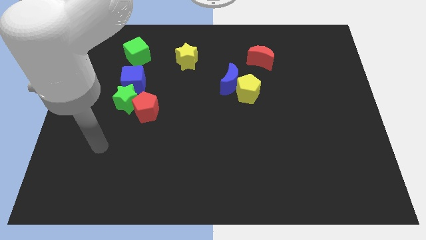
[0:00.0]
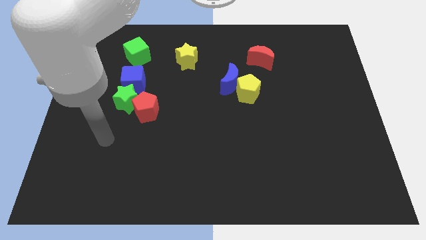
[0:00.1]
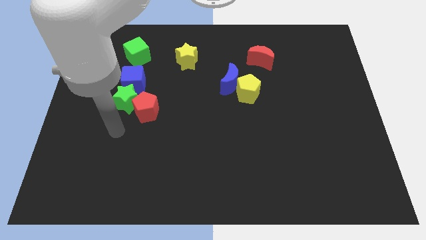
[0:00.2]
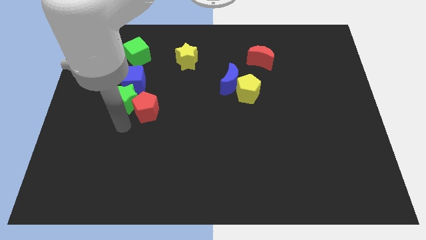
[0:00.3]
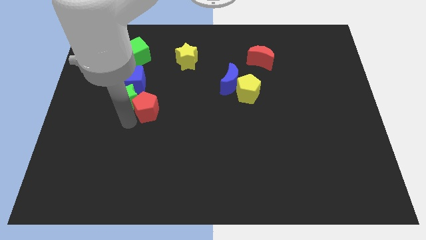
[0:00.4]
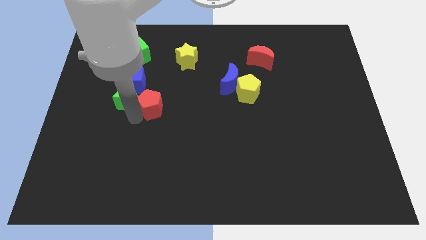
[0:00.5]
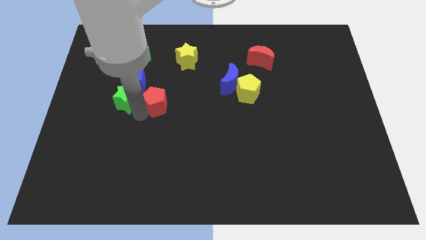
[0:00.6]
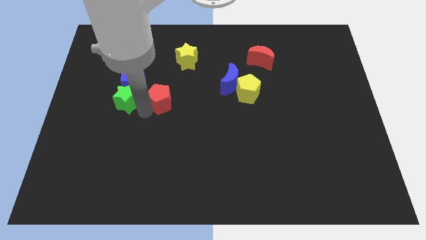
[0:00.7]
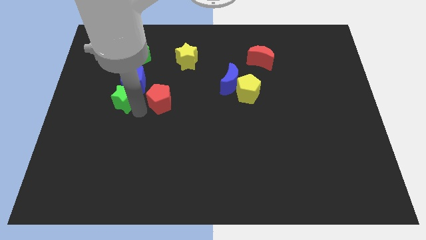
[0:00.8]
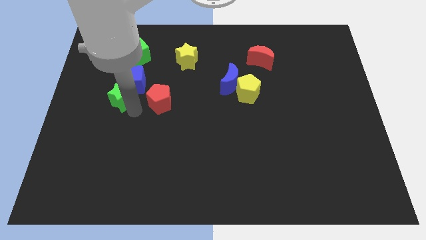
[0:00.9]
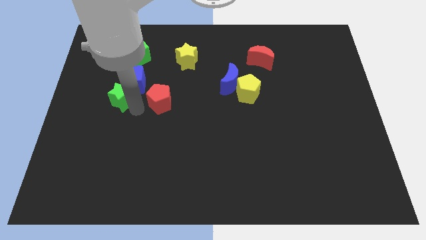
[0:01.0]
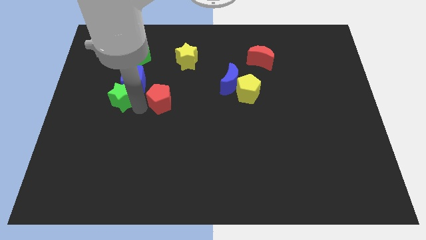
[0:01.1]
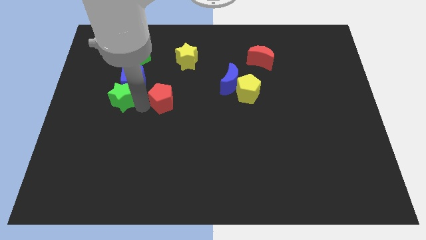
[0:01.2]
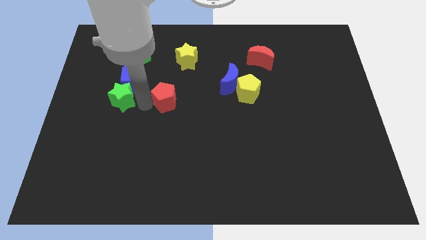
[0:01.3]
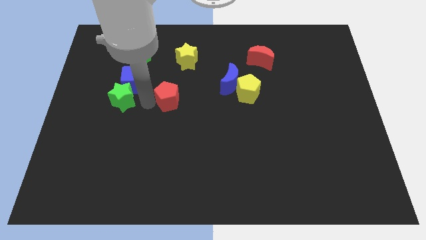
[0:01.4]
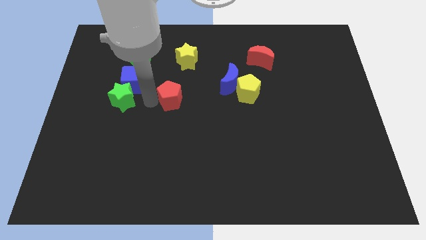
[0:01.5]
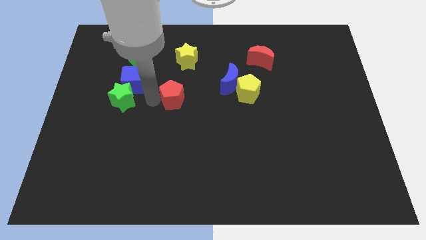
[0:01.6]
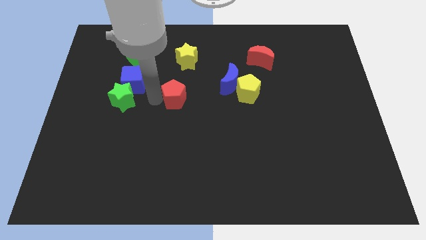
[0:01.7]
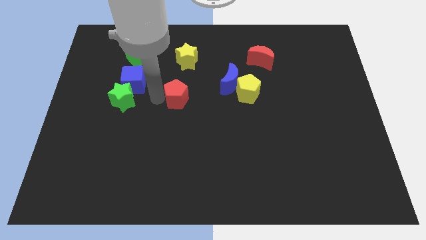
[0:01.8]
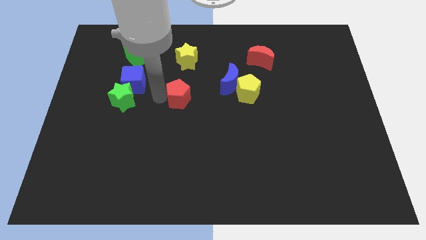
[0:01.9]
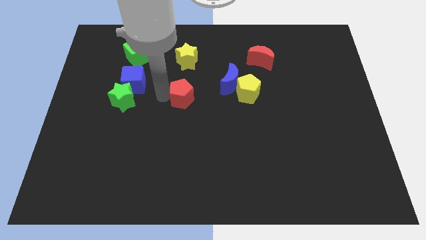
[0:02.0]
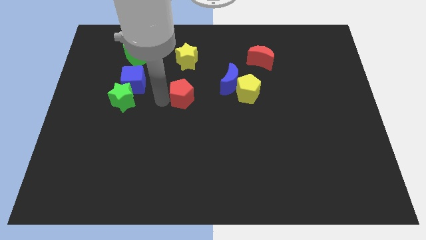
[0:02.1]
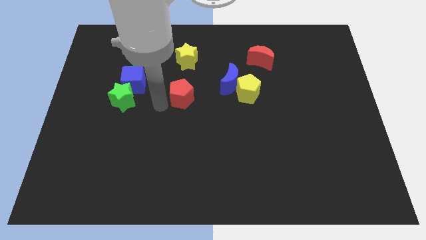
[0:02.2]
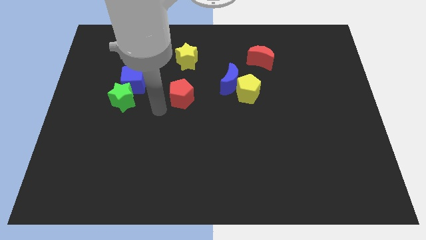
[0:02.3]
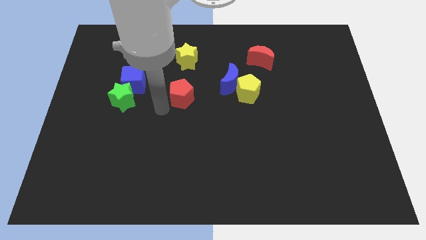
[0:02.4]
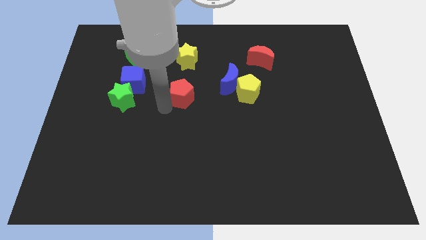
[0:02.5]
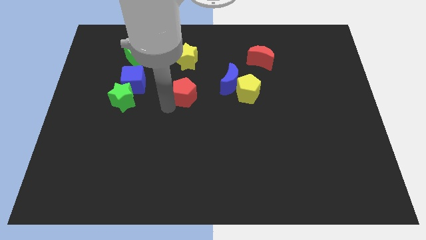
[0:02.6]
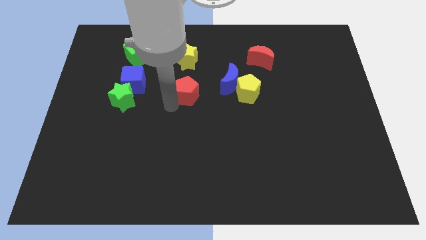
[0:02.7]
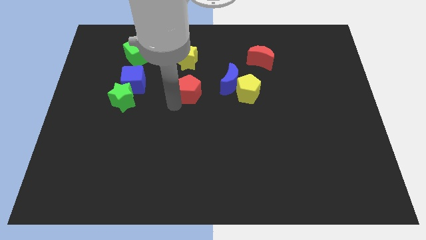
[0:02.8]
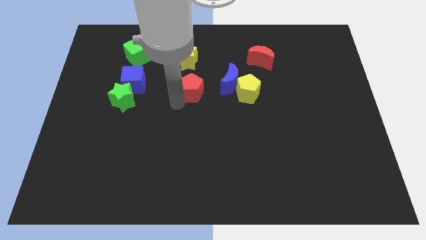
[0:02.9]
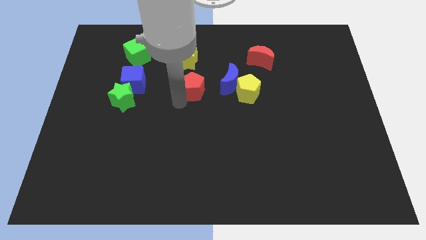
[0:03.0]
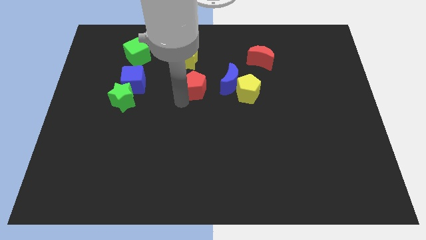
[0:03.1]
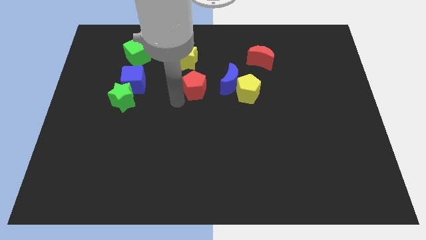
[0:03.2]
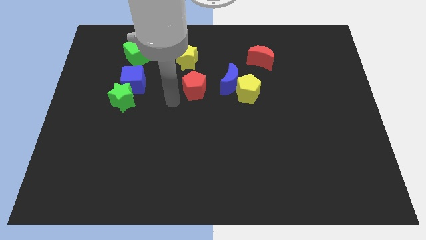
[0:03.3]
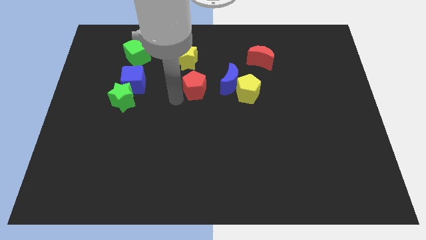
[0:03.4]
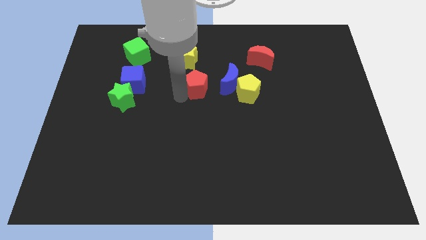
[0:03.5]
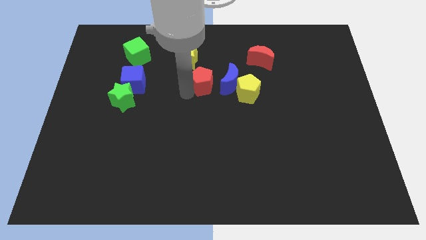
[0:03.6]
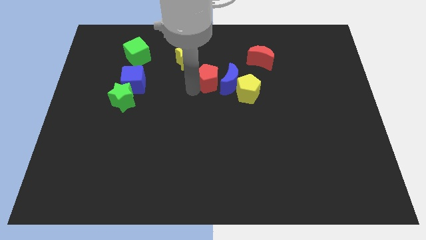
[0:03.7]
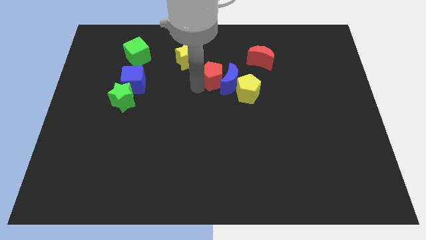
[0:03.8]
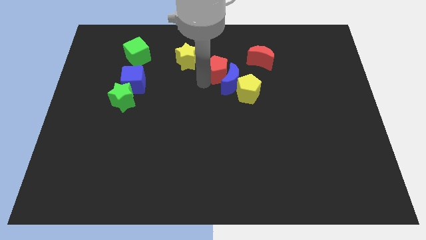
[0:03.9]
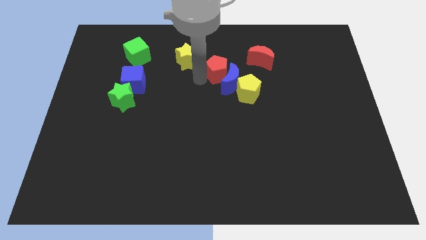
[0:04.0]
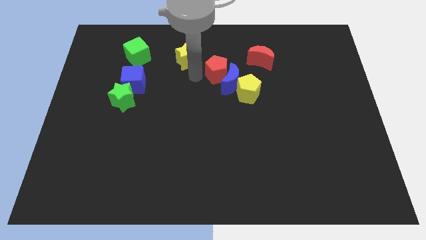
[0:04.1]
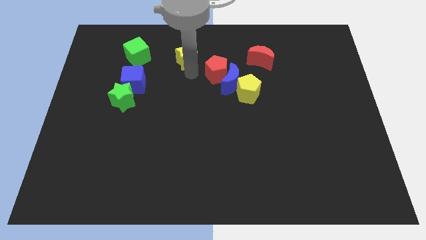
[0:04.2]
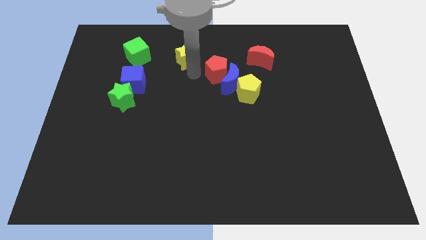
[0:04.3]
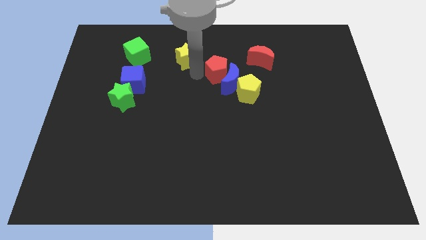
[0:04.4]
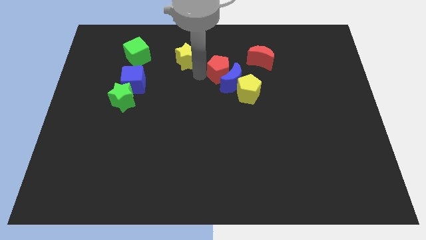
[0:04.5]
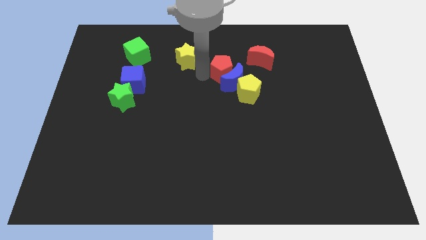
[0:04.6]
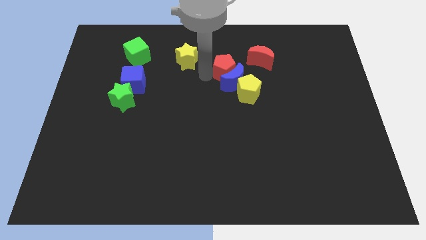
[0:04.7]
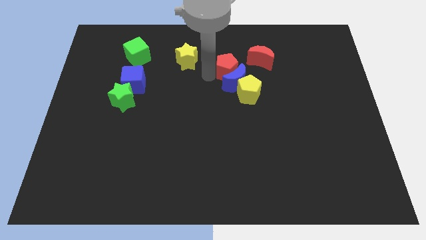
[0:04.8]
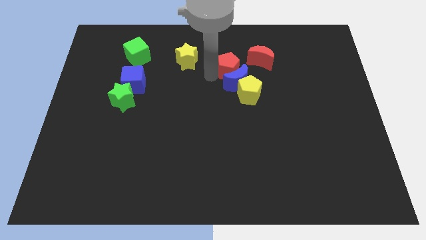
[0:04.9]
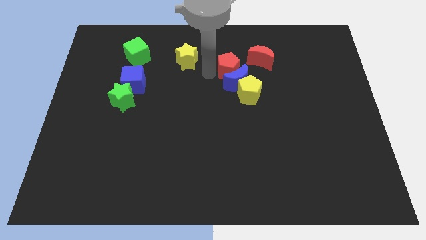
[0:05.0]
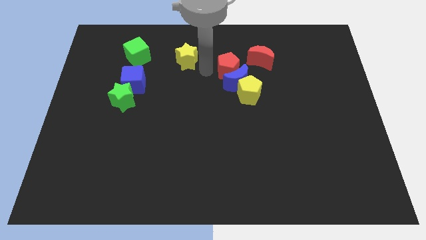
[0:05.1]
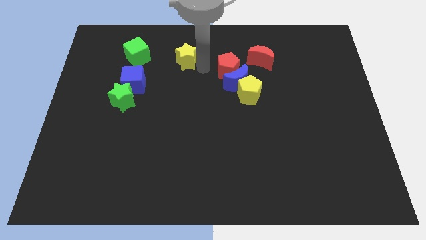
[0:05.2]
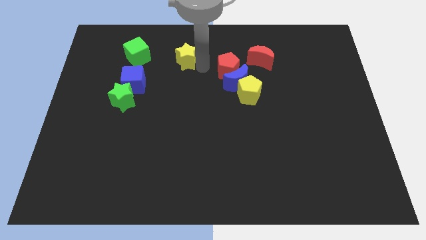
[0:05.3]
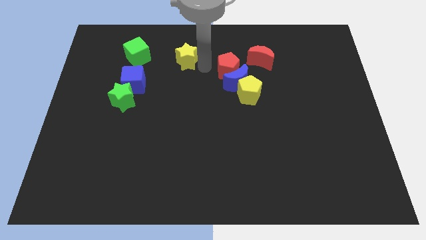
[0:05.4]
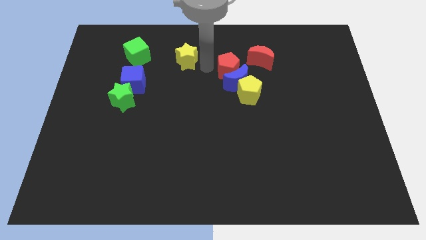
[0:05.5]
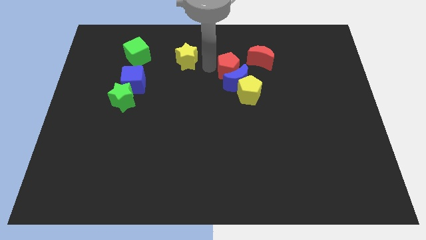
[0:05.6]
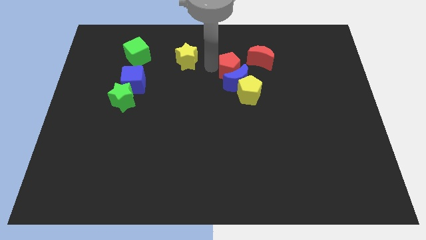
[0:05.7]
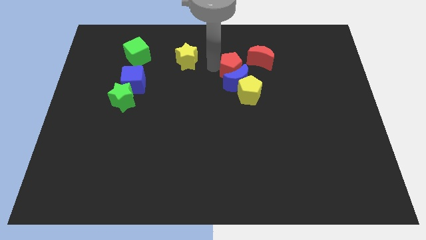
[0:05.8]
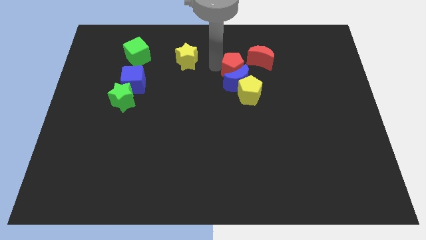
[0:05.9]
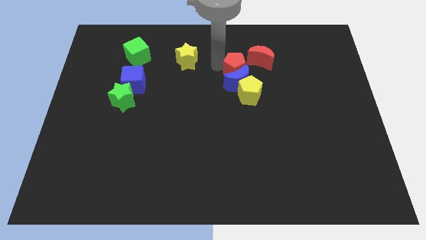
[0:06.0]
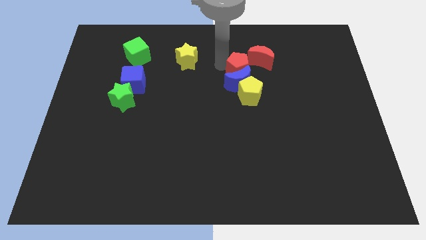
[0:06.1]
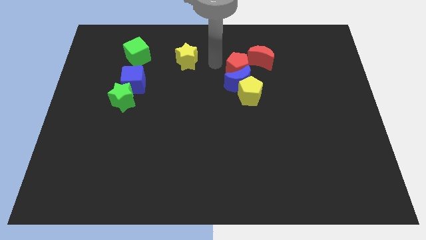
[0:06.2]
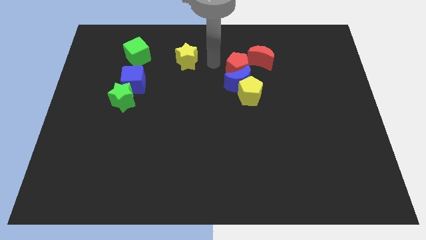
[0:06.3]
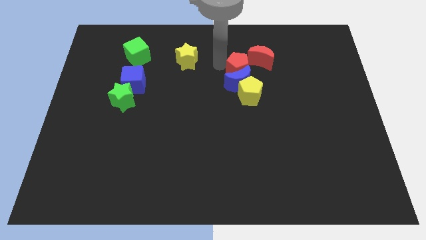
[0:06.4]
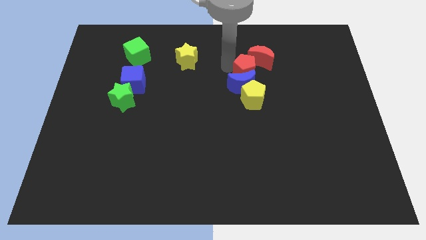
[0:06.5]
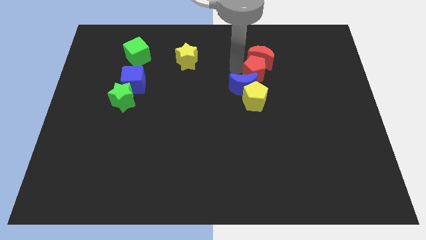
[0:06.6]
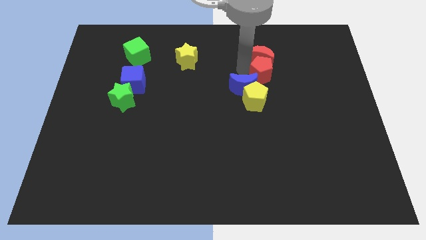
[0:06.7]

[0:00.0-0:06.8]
move the red pentagon diagonally up and to the right of the yellow pentagon
